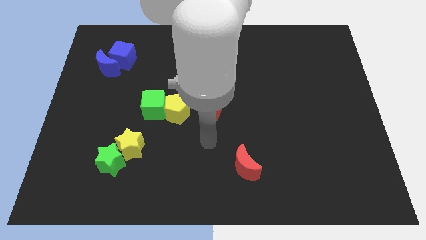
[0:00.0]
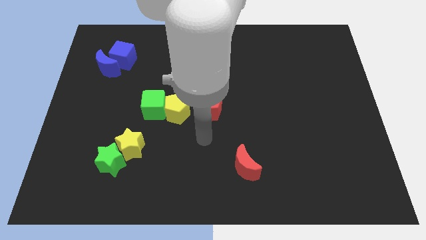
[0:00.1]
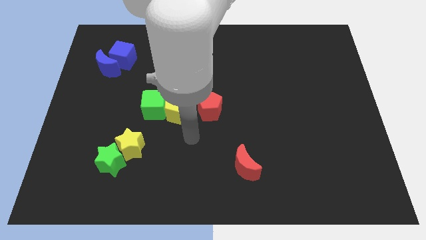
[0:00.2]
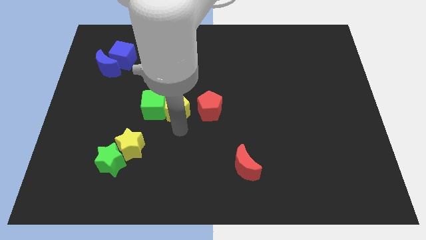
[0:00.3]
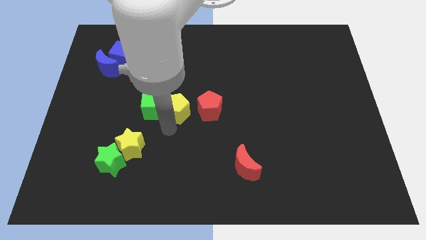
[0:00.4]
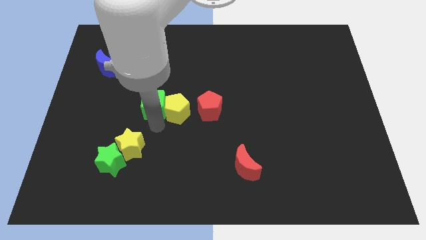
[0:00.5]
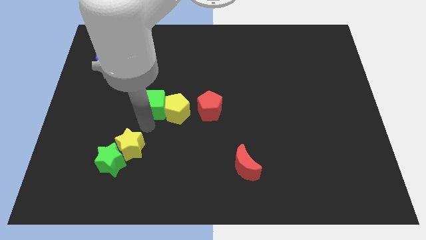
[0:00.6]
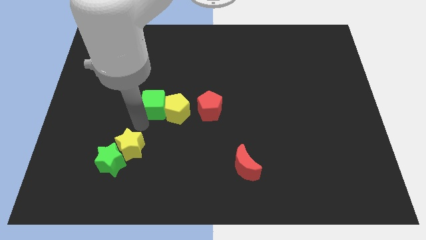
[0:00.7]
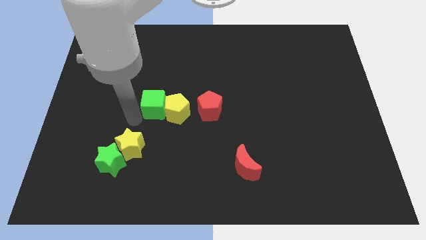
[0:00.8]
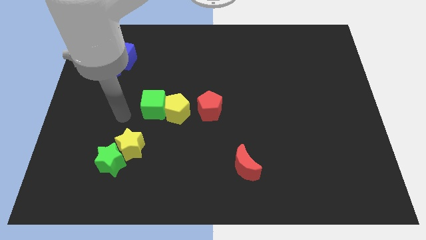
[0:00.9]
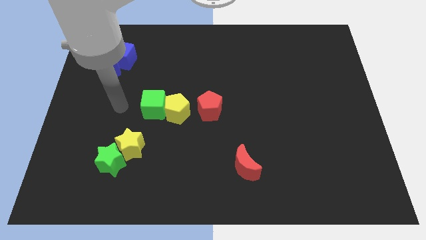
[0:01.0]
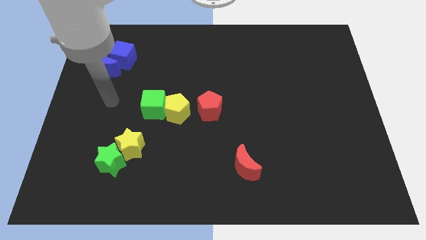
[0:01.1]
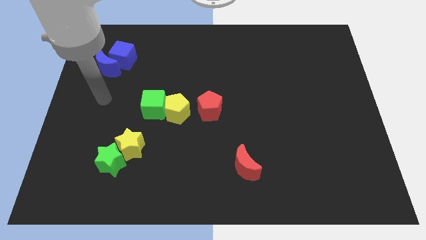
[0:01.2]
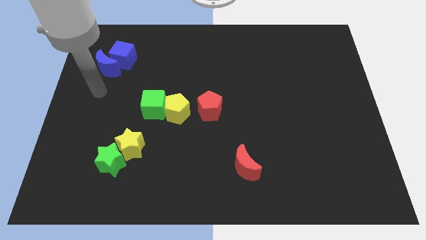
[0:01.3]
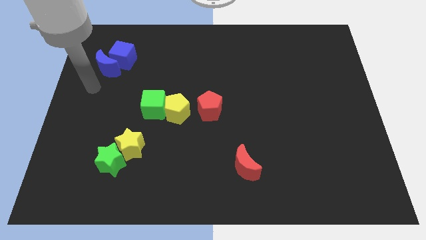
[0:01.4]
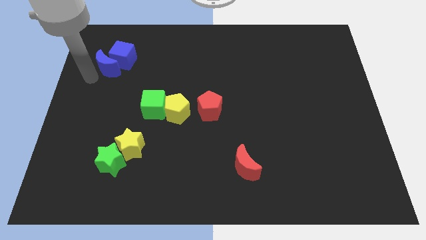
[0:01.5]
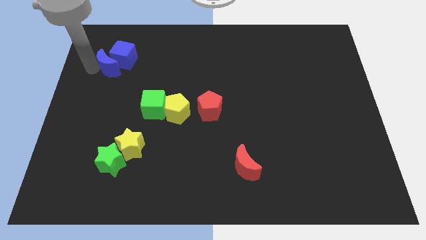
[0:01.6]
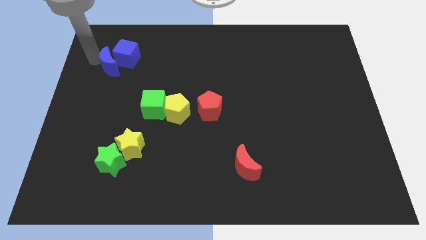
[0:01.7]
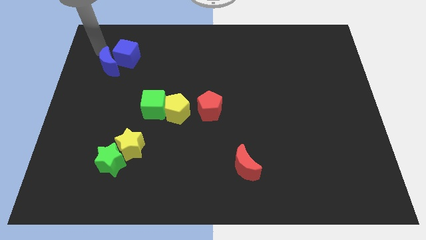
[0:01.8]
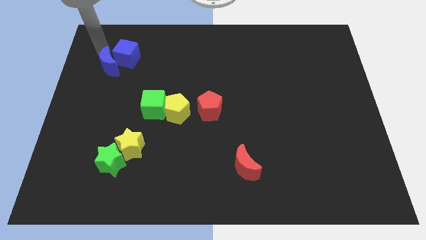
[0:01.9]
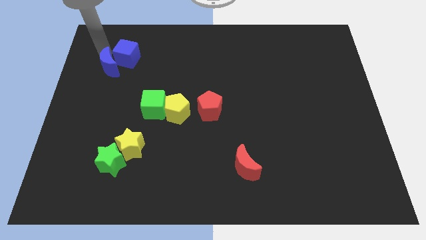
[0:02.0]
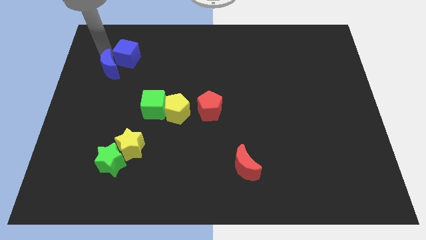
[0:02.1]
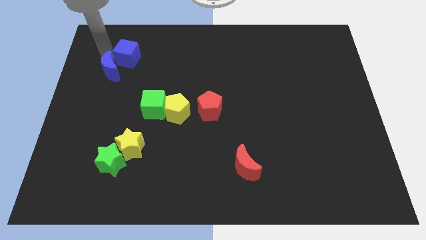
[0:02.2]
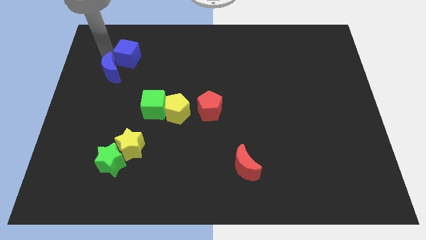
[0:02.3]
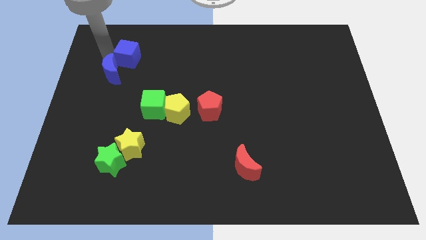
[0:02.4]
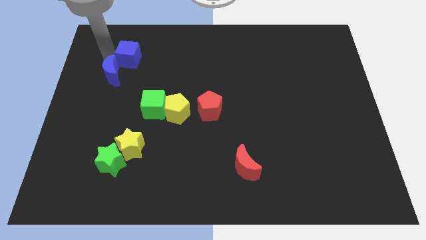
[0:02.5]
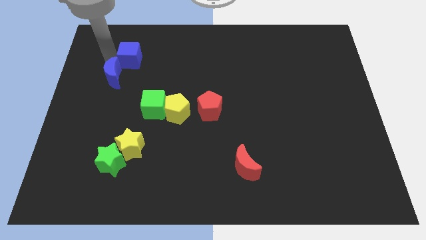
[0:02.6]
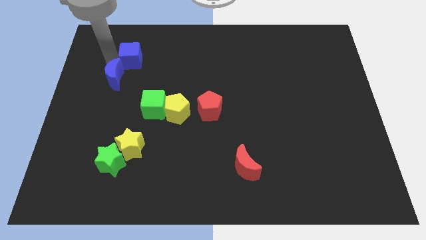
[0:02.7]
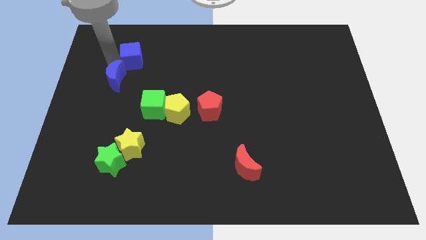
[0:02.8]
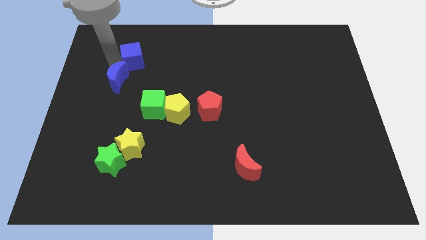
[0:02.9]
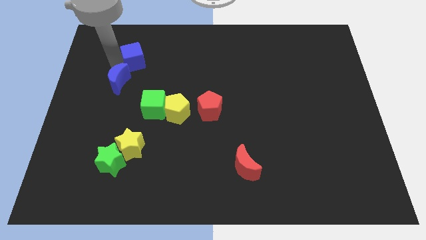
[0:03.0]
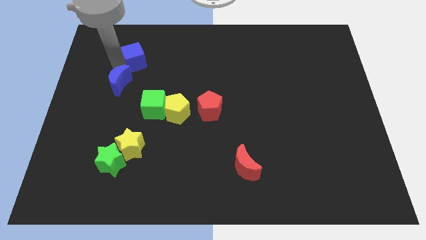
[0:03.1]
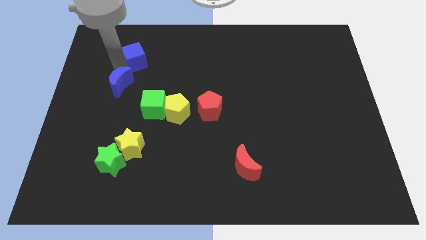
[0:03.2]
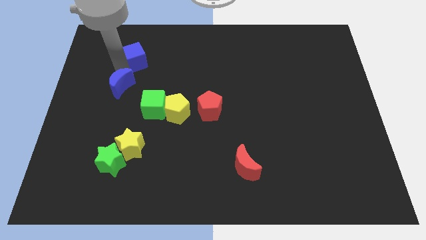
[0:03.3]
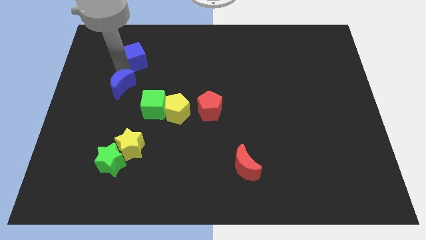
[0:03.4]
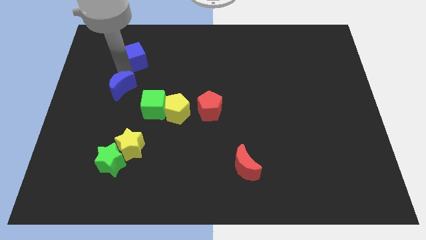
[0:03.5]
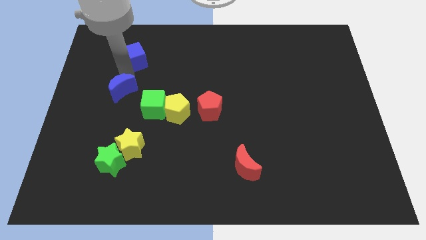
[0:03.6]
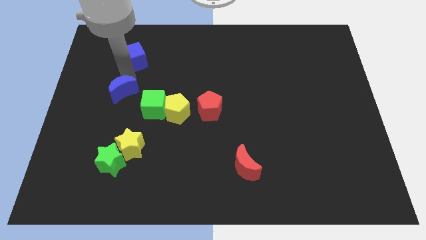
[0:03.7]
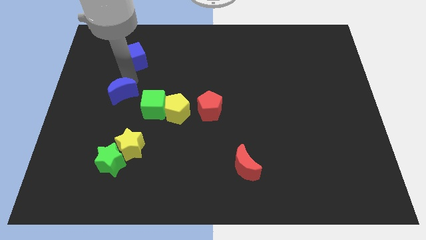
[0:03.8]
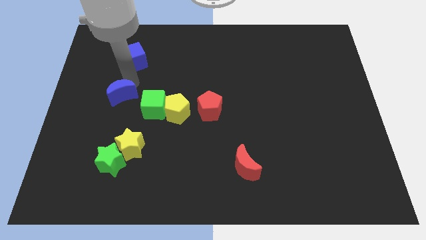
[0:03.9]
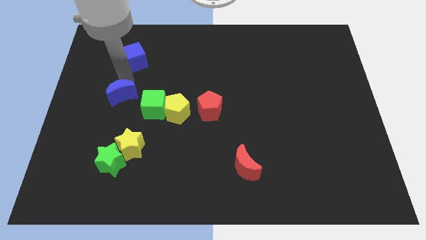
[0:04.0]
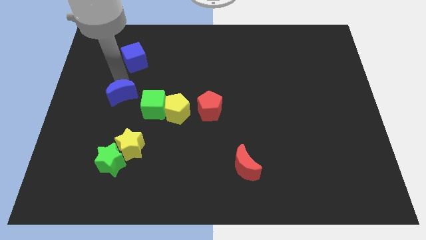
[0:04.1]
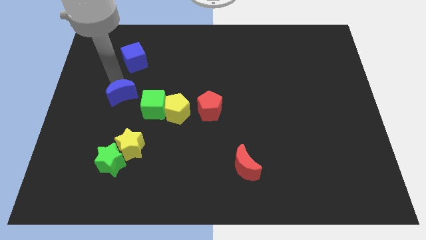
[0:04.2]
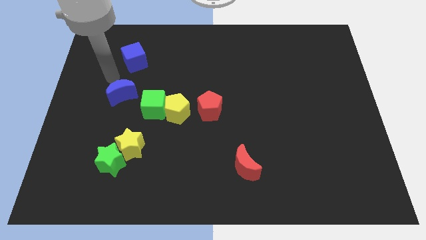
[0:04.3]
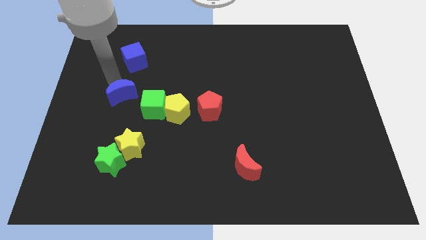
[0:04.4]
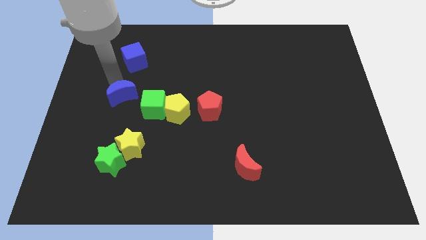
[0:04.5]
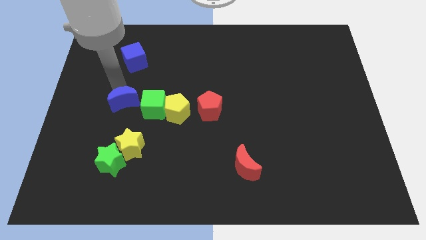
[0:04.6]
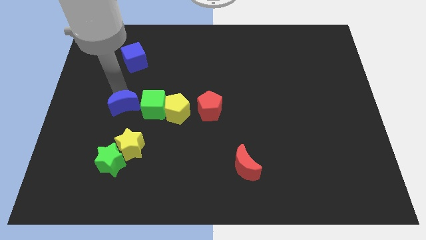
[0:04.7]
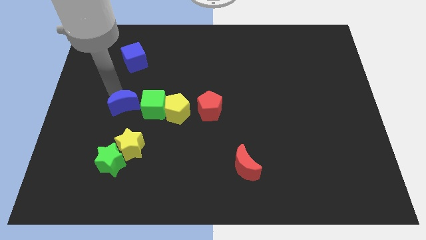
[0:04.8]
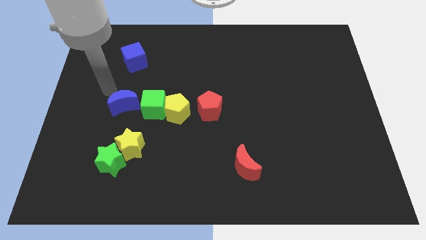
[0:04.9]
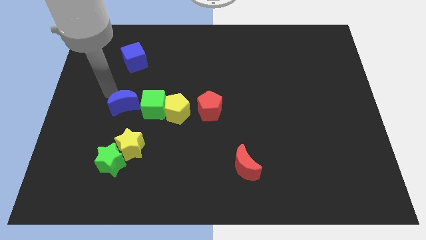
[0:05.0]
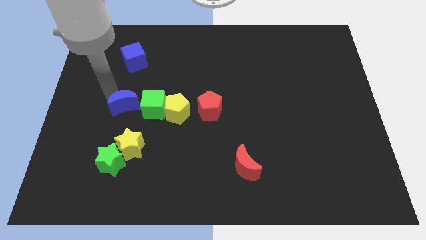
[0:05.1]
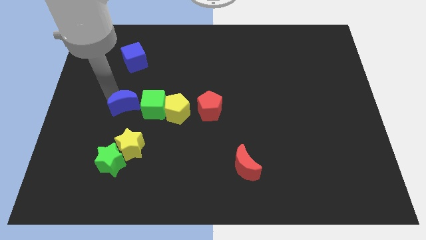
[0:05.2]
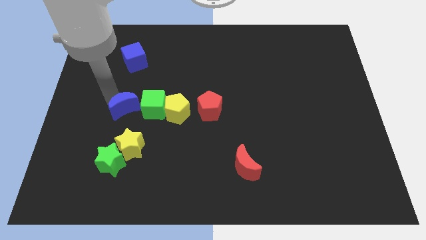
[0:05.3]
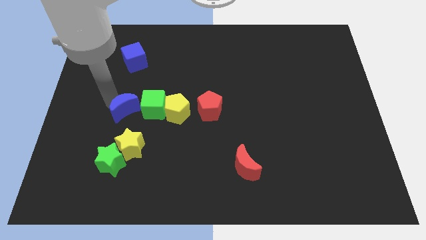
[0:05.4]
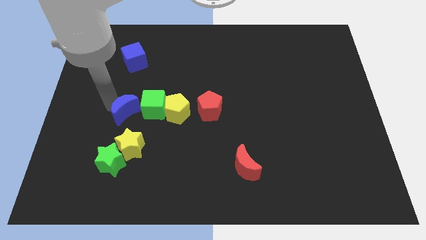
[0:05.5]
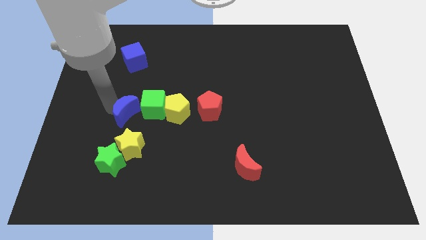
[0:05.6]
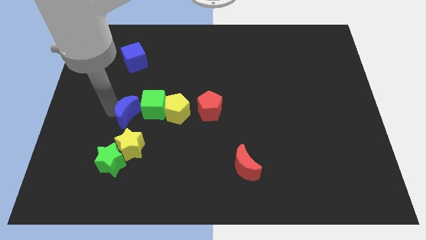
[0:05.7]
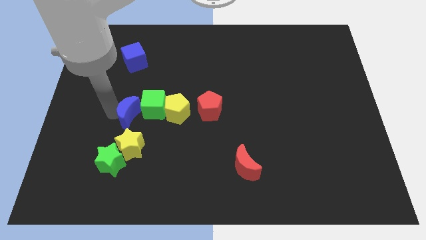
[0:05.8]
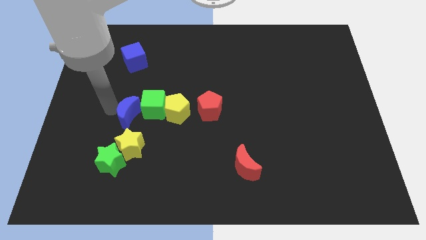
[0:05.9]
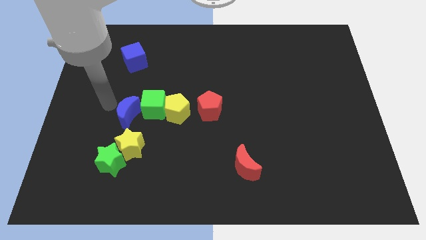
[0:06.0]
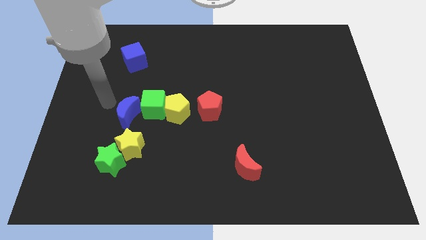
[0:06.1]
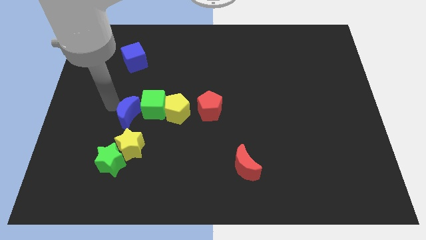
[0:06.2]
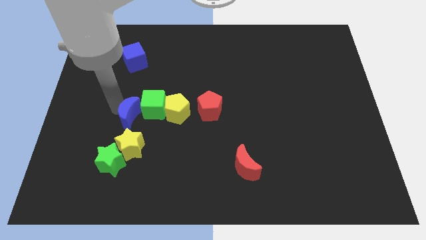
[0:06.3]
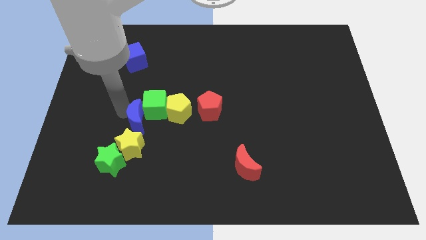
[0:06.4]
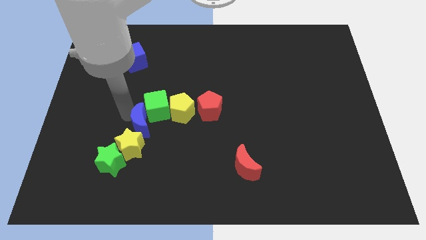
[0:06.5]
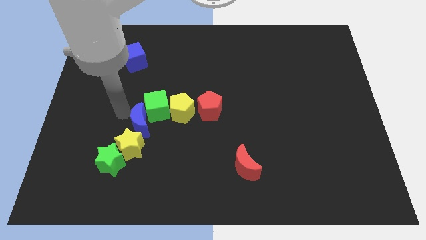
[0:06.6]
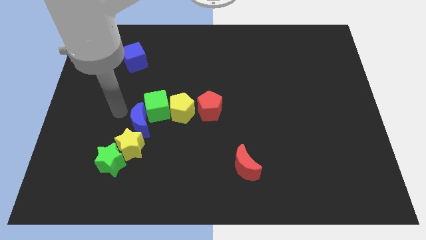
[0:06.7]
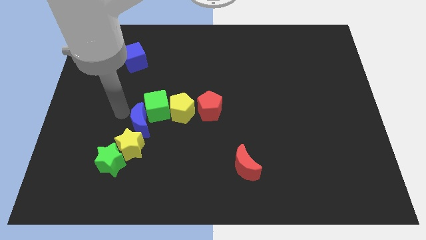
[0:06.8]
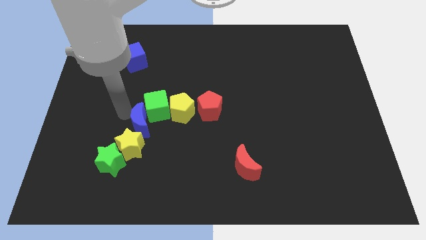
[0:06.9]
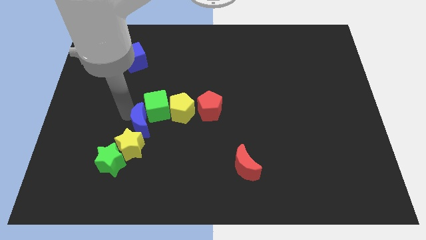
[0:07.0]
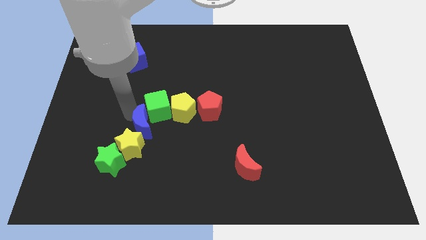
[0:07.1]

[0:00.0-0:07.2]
move the blue moon down and right diagonally

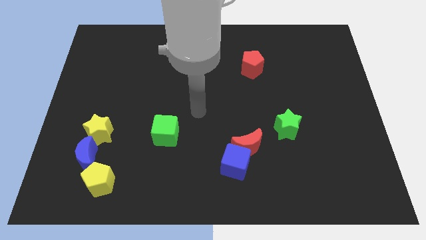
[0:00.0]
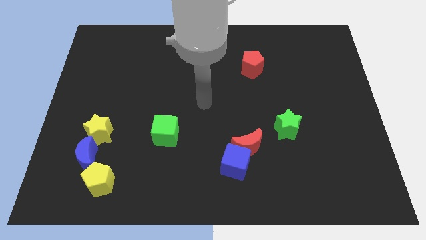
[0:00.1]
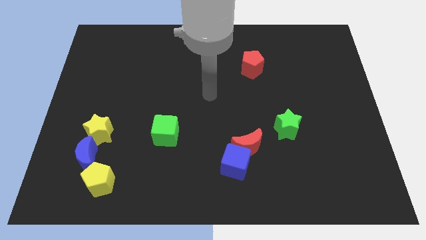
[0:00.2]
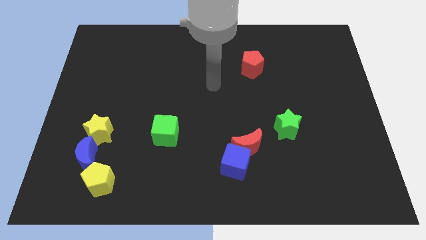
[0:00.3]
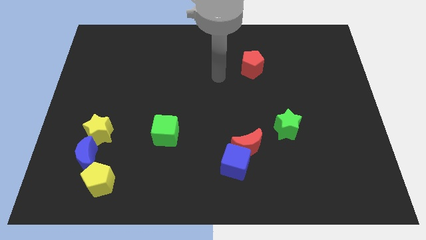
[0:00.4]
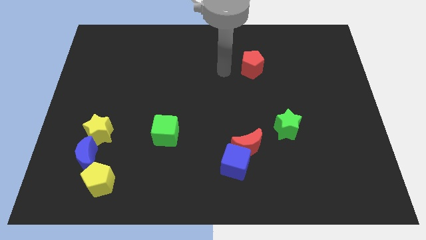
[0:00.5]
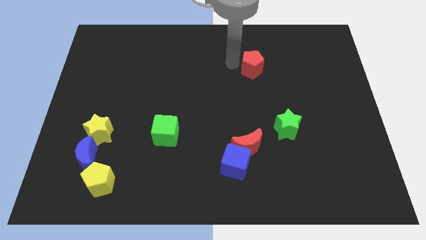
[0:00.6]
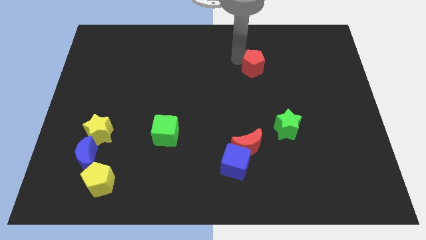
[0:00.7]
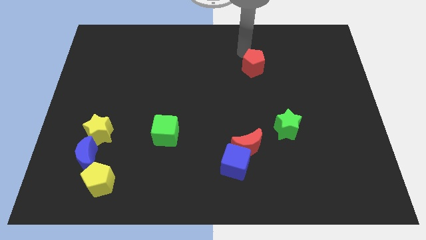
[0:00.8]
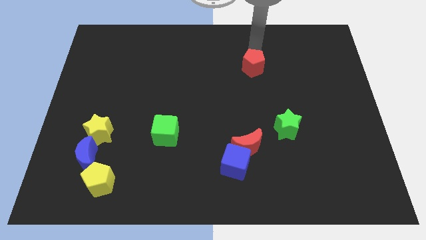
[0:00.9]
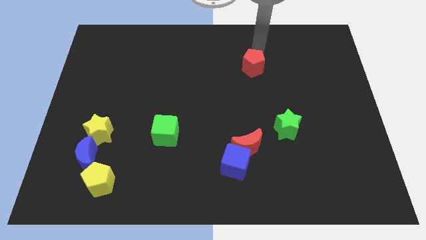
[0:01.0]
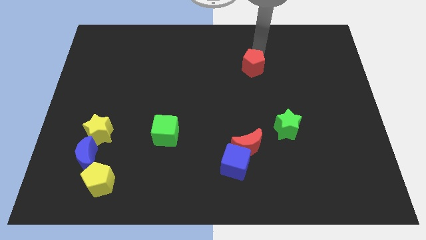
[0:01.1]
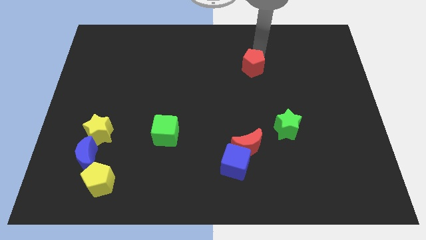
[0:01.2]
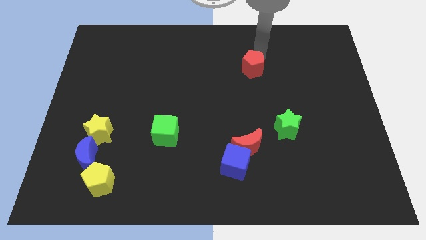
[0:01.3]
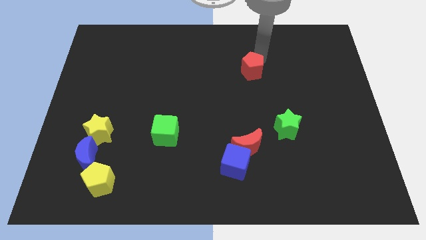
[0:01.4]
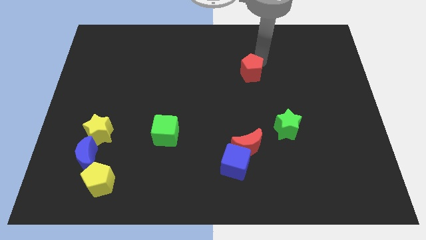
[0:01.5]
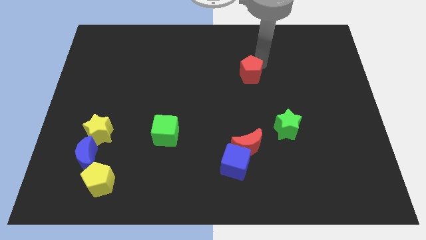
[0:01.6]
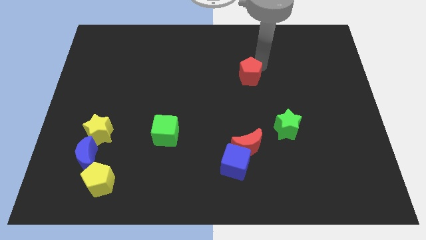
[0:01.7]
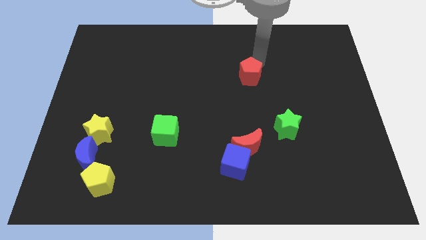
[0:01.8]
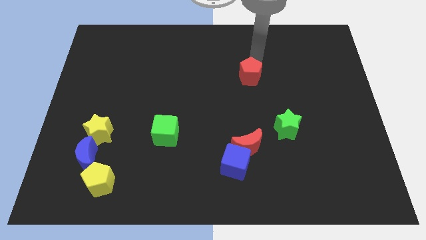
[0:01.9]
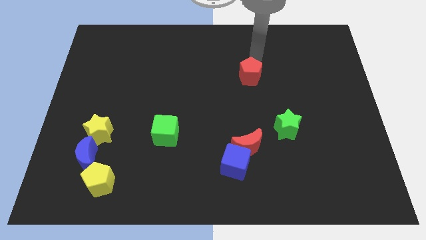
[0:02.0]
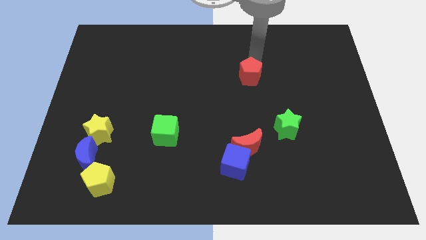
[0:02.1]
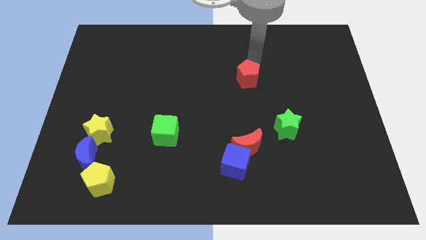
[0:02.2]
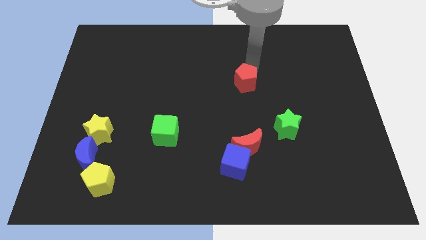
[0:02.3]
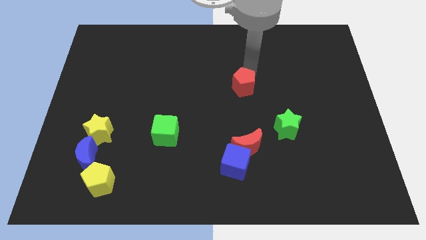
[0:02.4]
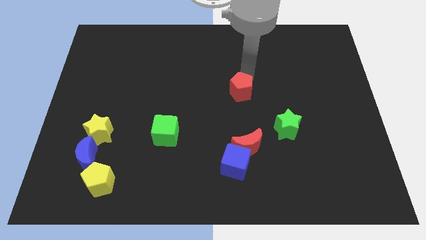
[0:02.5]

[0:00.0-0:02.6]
slide the red pentagon down slightly
